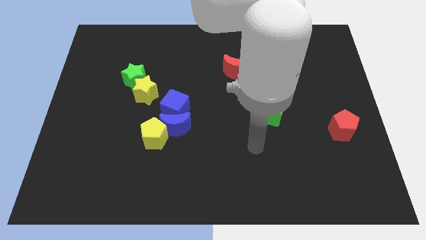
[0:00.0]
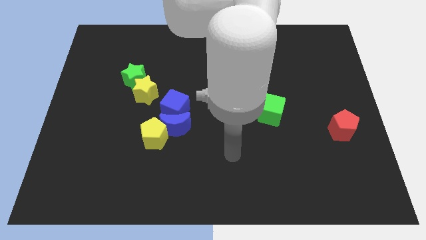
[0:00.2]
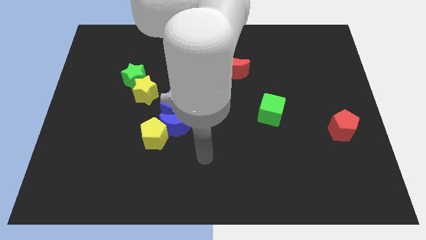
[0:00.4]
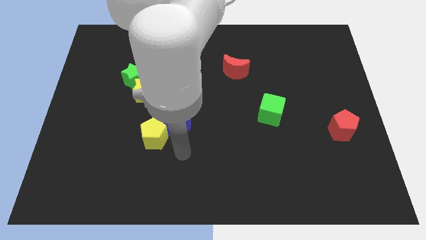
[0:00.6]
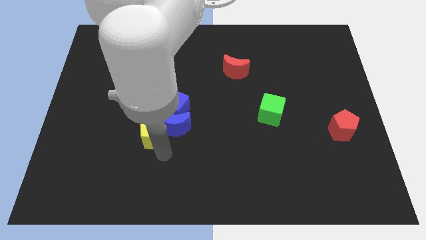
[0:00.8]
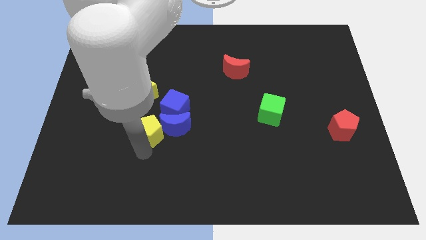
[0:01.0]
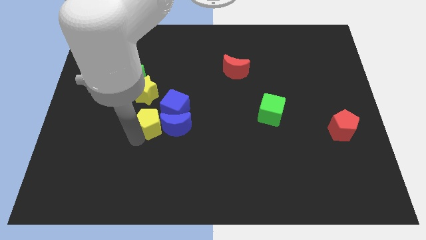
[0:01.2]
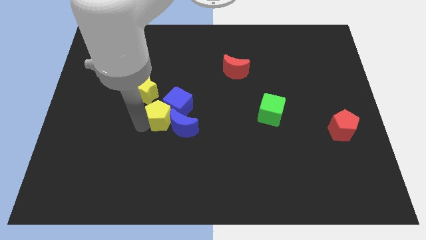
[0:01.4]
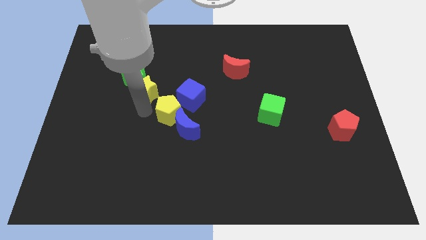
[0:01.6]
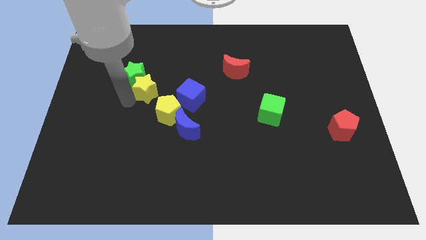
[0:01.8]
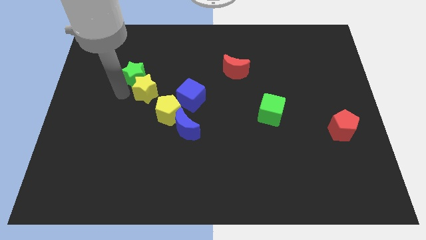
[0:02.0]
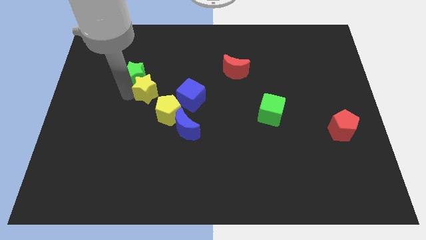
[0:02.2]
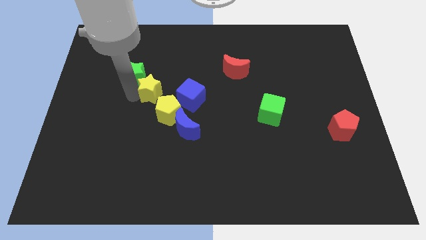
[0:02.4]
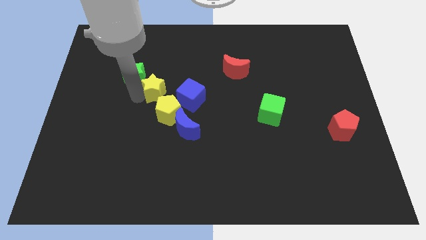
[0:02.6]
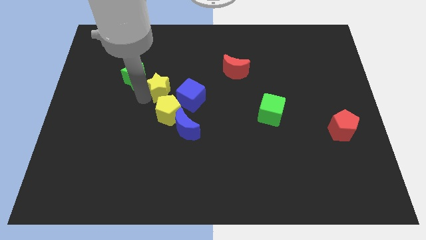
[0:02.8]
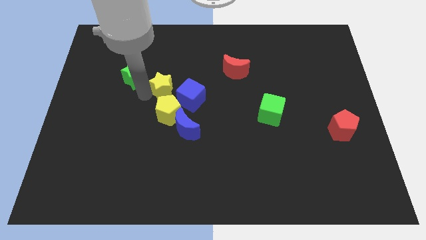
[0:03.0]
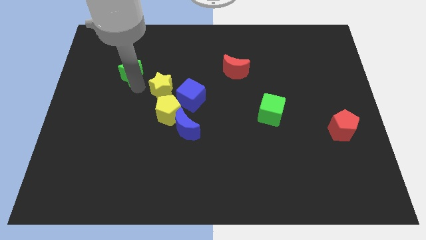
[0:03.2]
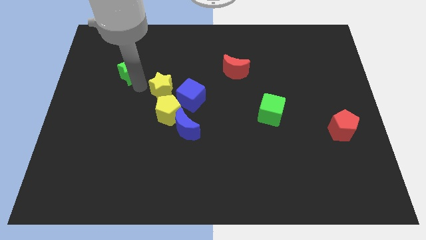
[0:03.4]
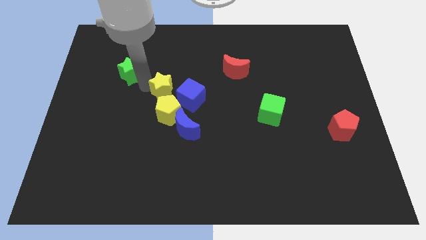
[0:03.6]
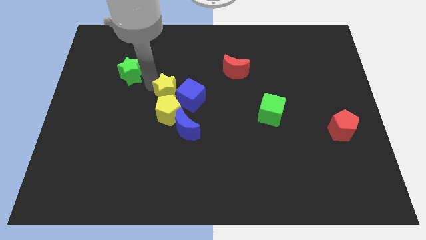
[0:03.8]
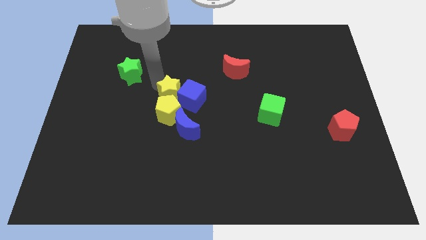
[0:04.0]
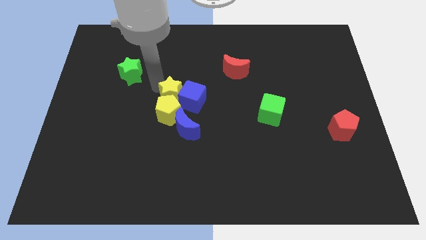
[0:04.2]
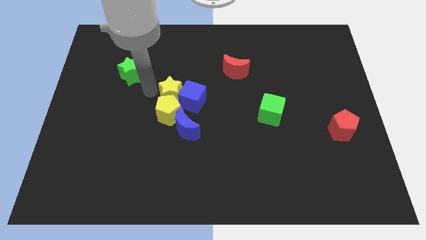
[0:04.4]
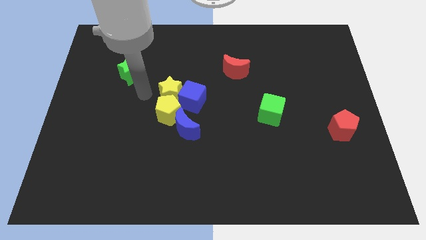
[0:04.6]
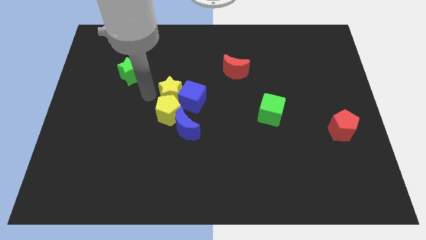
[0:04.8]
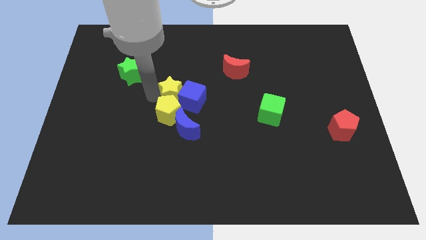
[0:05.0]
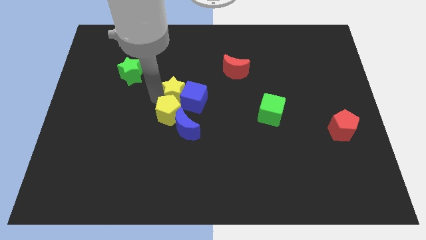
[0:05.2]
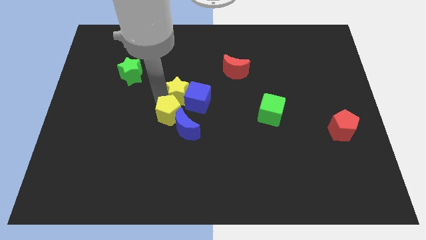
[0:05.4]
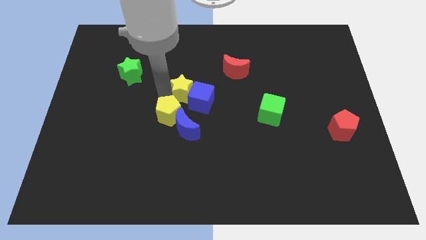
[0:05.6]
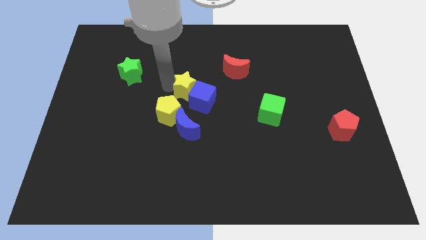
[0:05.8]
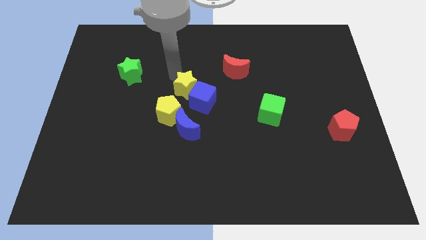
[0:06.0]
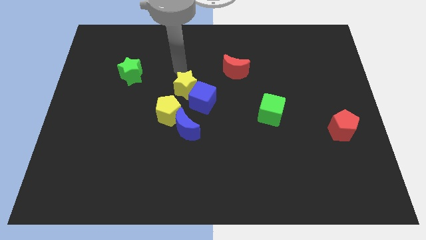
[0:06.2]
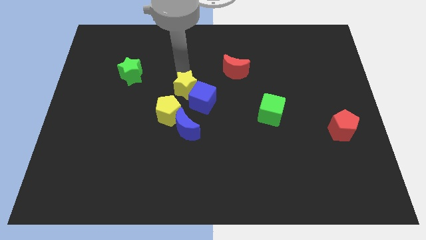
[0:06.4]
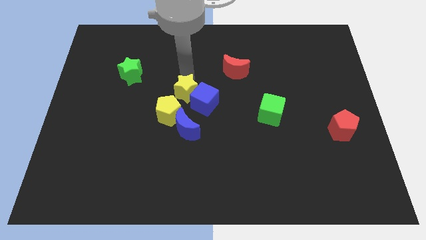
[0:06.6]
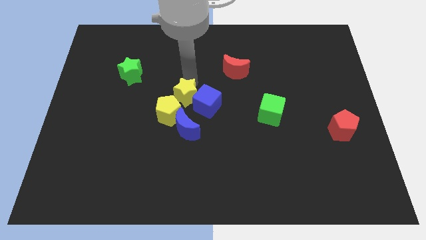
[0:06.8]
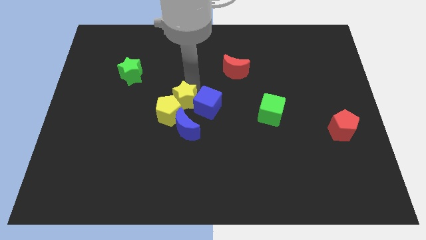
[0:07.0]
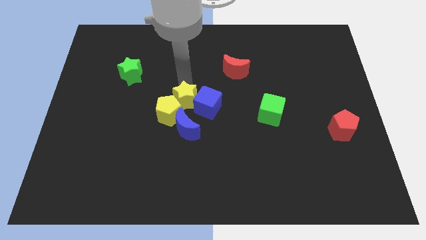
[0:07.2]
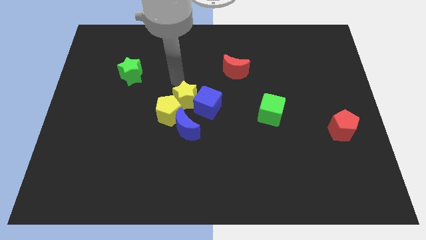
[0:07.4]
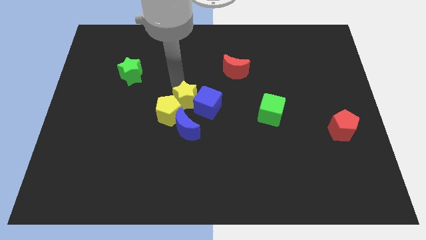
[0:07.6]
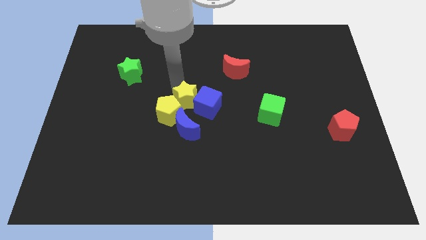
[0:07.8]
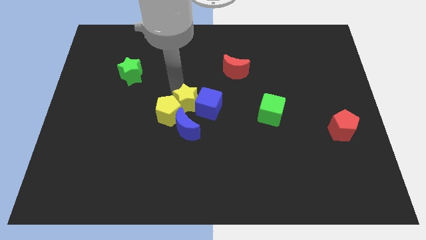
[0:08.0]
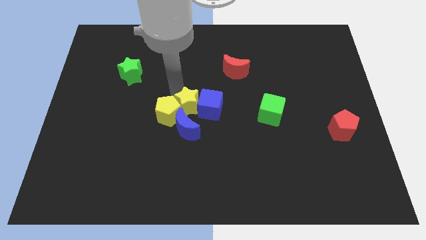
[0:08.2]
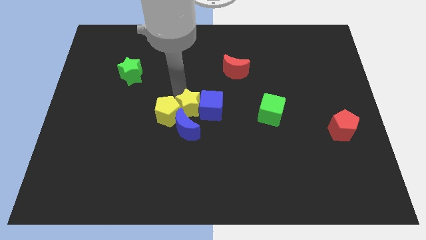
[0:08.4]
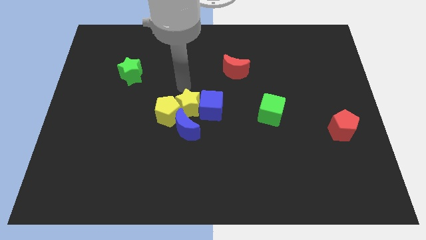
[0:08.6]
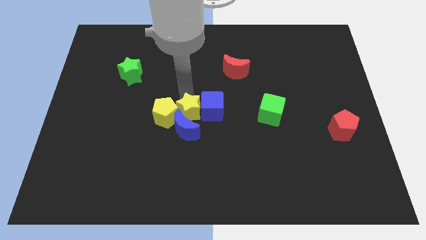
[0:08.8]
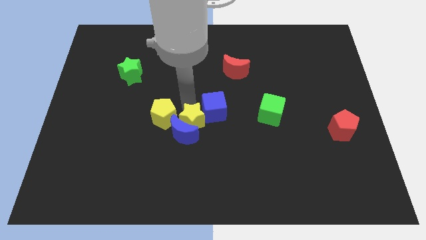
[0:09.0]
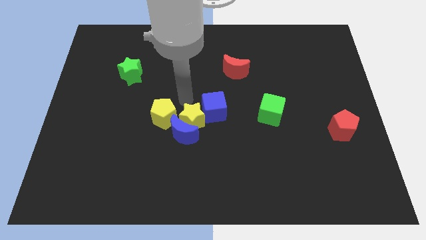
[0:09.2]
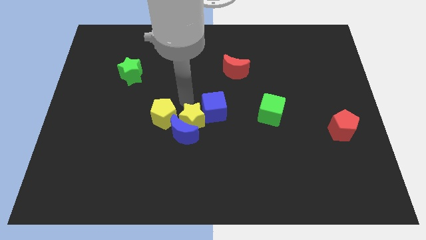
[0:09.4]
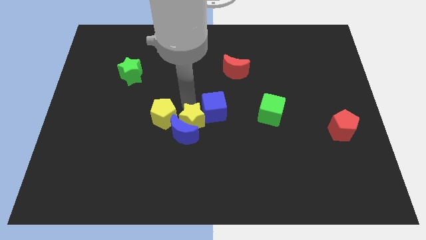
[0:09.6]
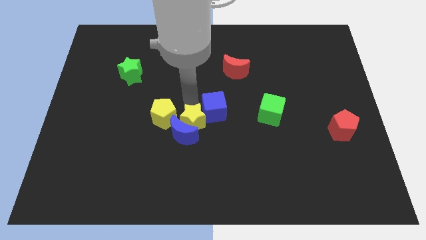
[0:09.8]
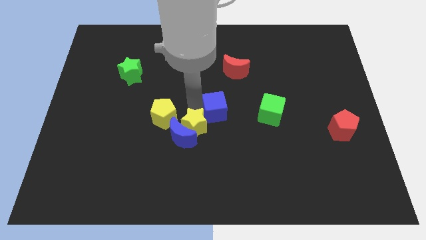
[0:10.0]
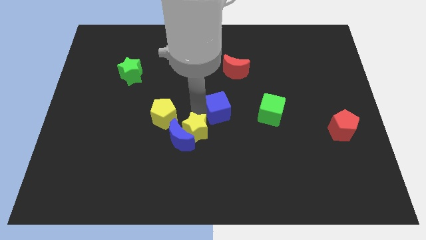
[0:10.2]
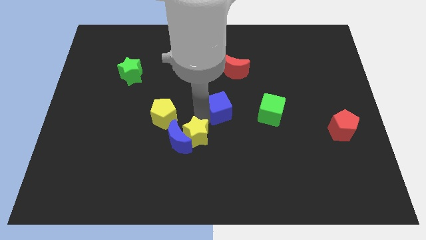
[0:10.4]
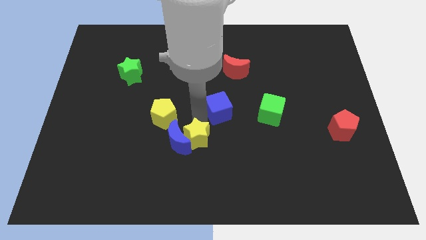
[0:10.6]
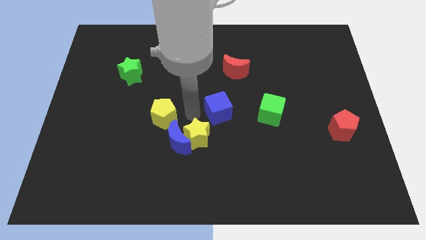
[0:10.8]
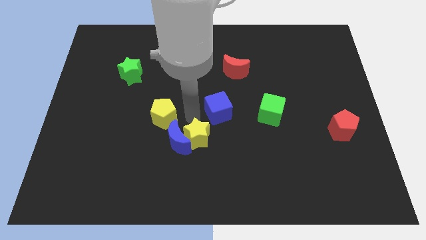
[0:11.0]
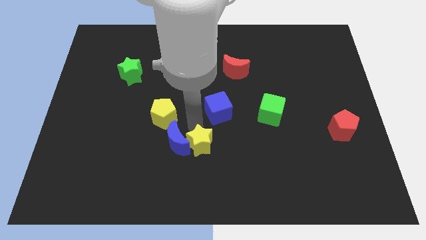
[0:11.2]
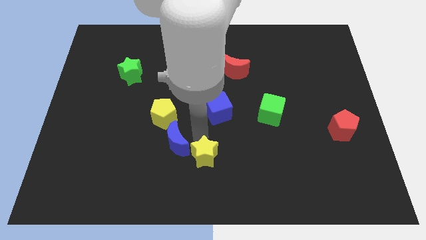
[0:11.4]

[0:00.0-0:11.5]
slide the yellow star to the bottom side
